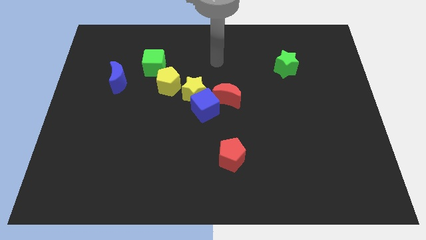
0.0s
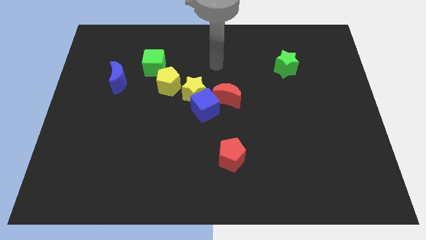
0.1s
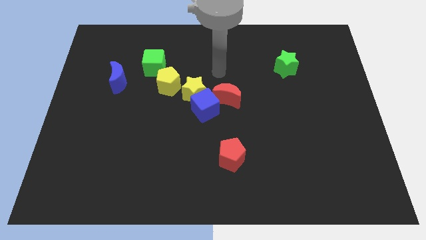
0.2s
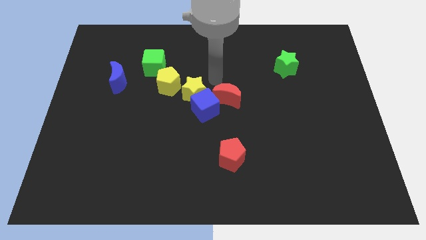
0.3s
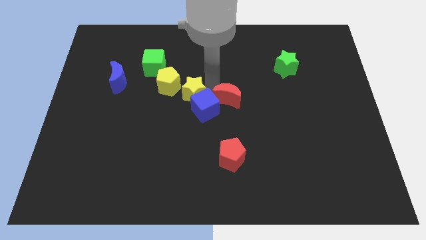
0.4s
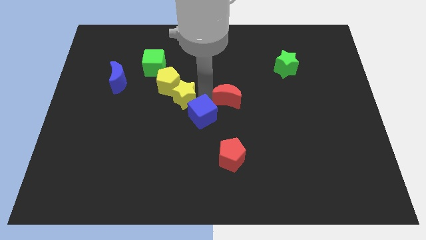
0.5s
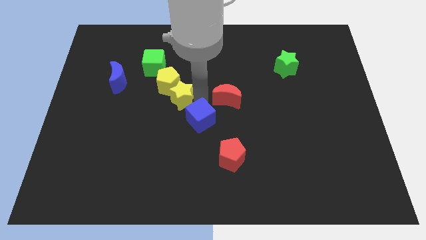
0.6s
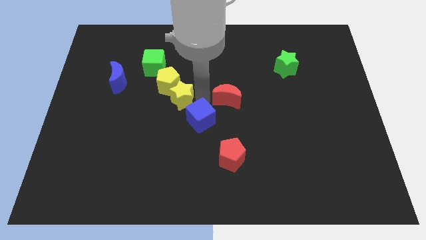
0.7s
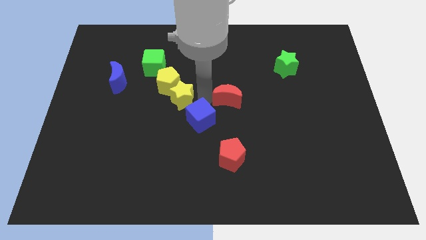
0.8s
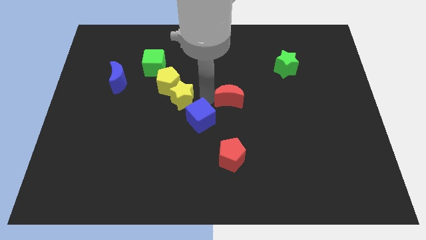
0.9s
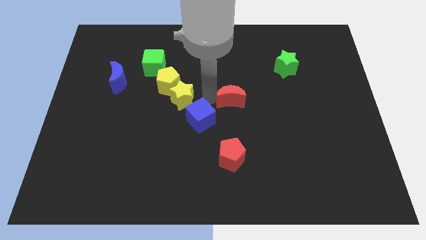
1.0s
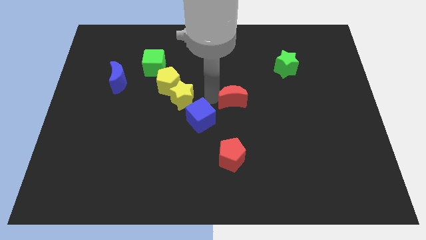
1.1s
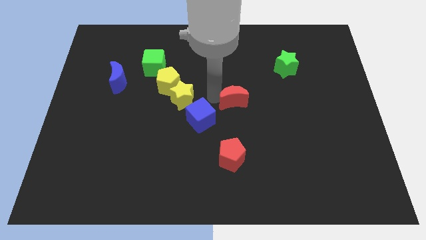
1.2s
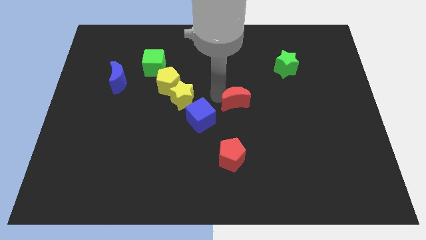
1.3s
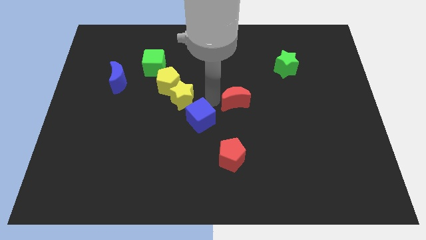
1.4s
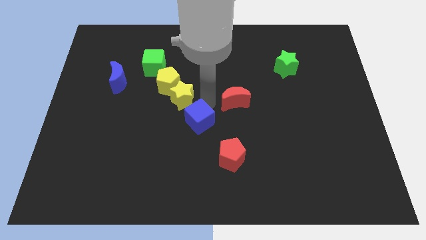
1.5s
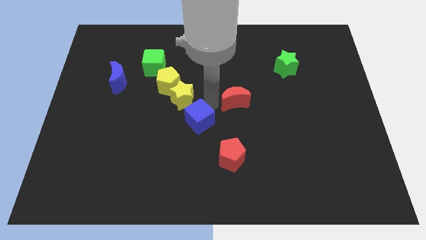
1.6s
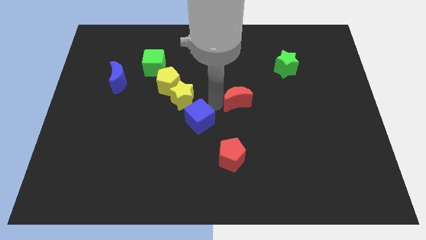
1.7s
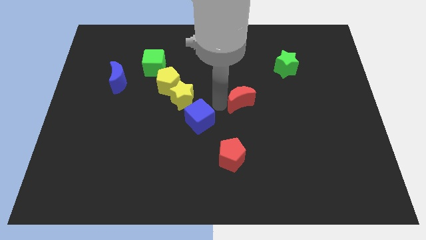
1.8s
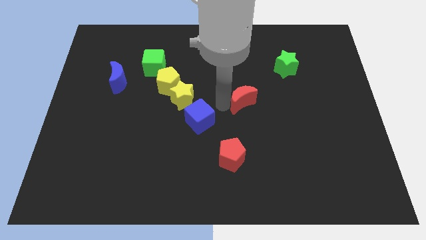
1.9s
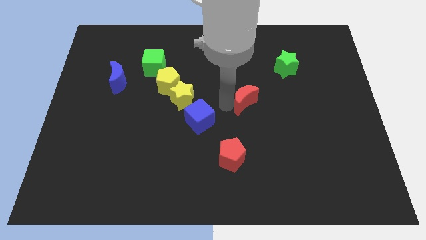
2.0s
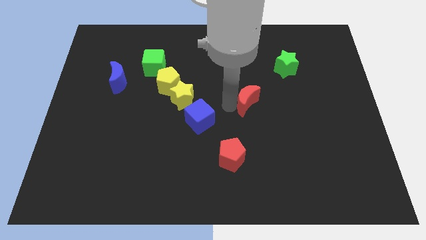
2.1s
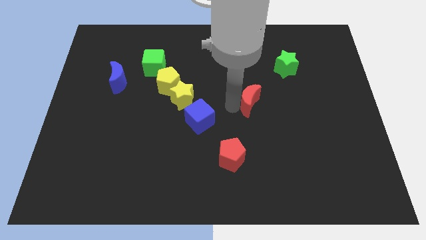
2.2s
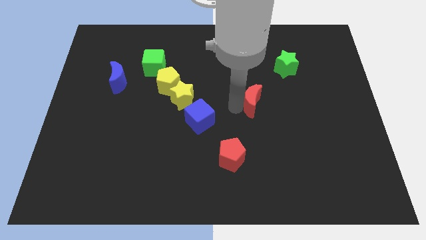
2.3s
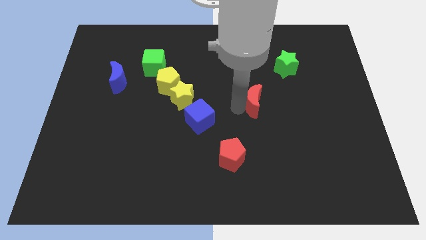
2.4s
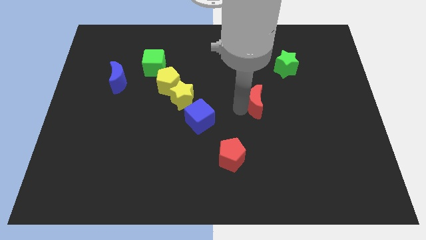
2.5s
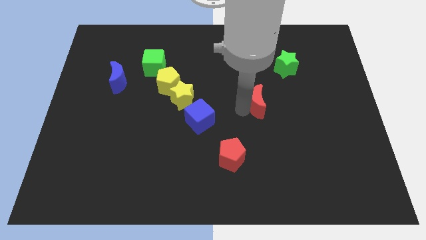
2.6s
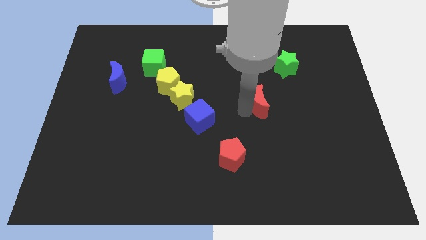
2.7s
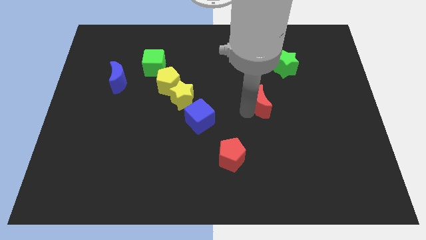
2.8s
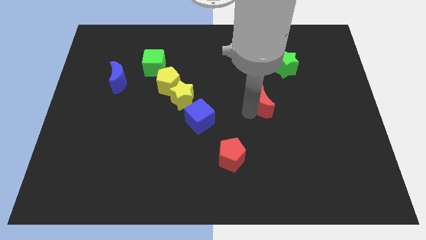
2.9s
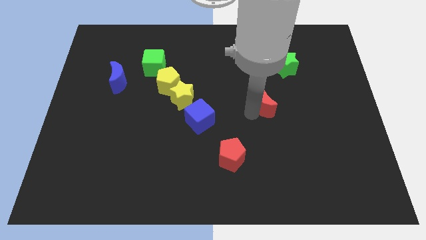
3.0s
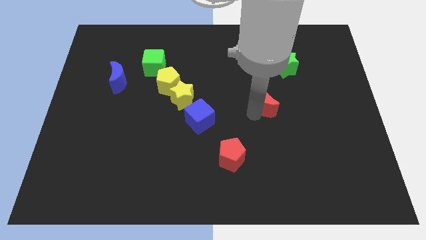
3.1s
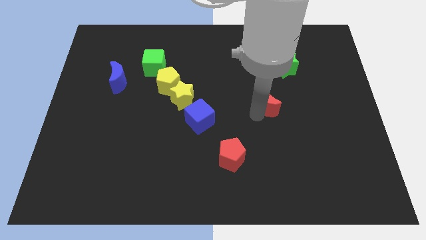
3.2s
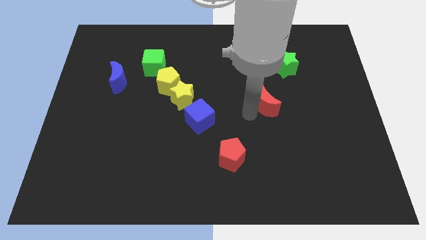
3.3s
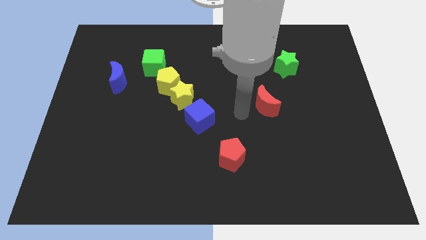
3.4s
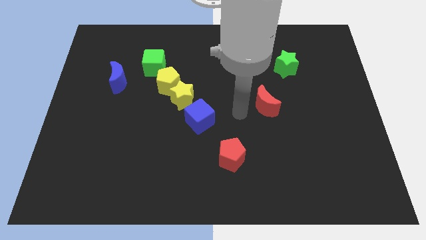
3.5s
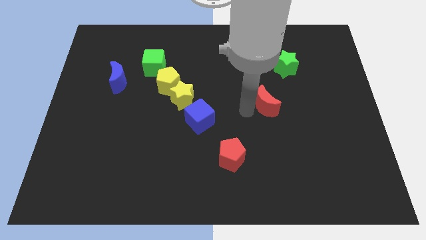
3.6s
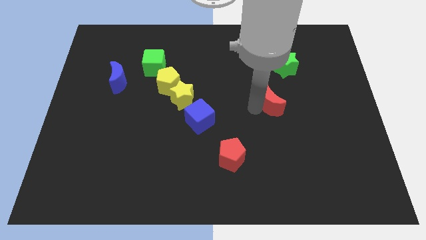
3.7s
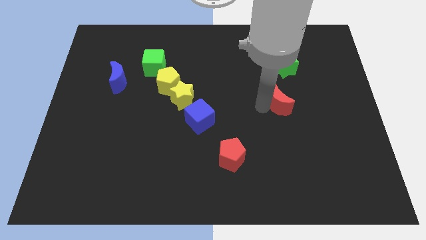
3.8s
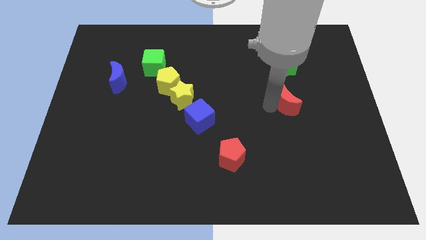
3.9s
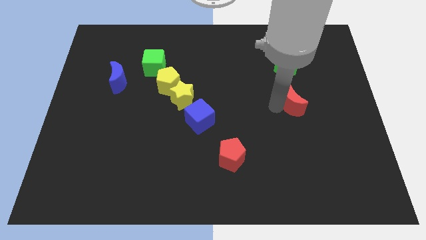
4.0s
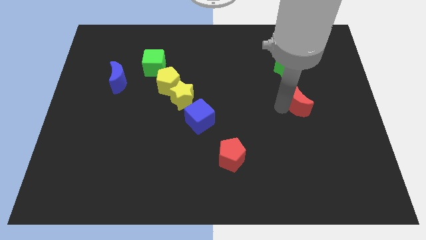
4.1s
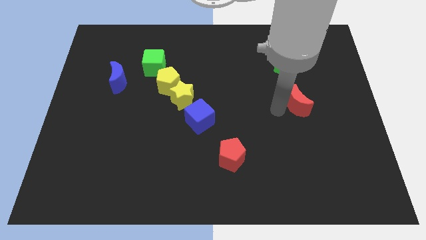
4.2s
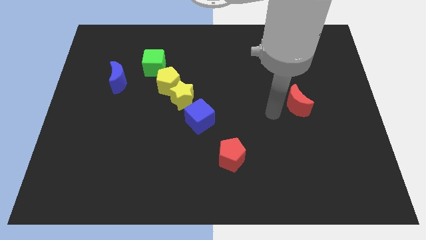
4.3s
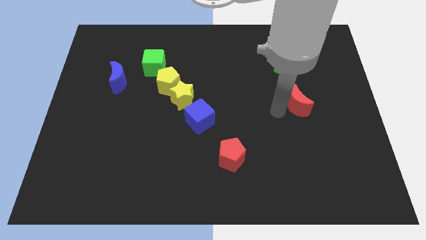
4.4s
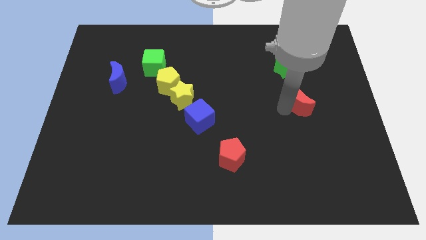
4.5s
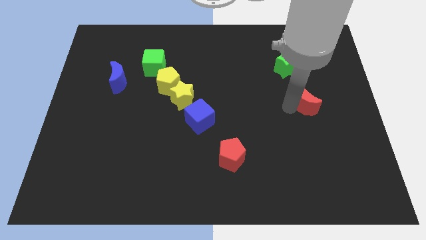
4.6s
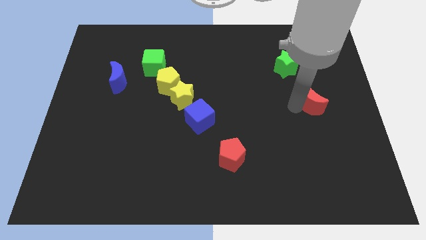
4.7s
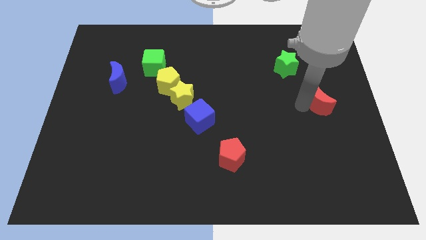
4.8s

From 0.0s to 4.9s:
slide the red moon to the right side

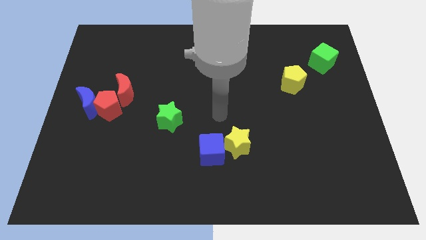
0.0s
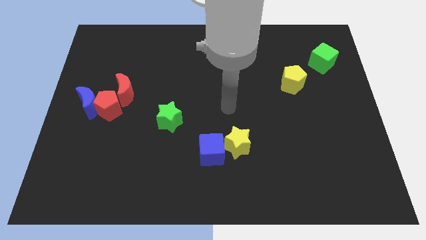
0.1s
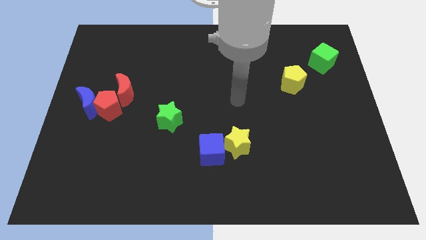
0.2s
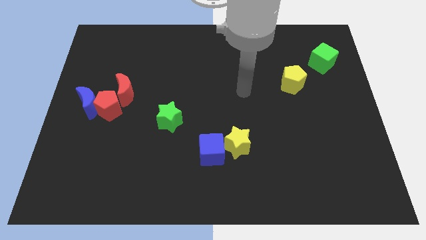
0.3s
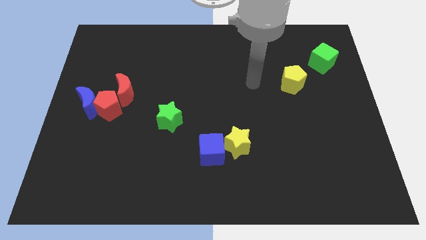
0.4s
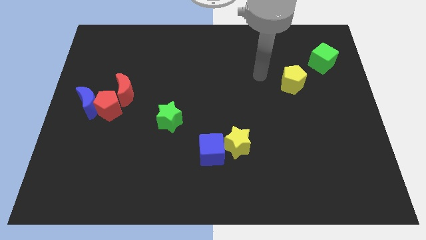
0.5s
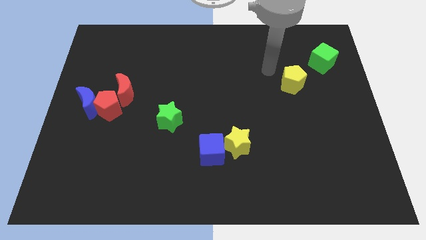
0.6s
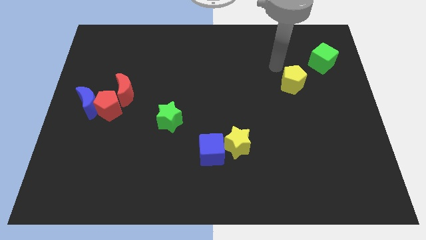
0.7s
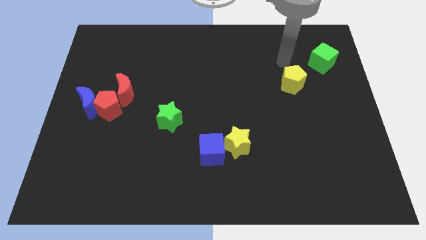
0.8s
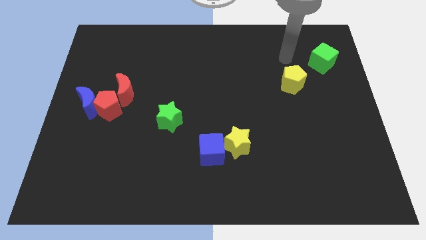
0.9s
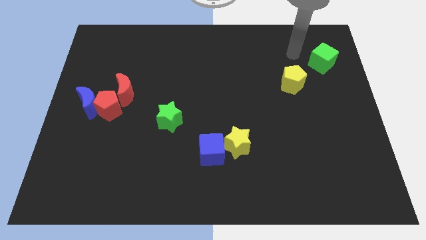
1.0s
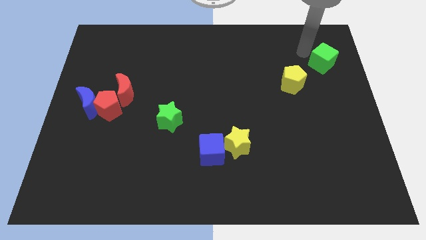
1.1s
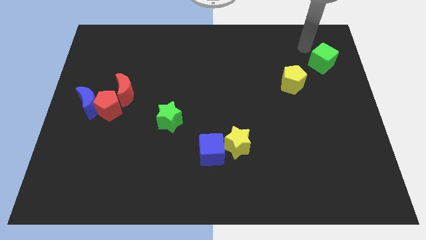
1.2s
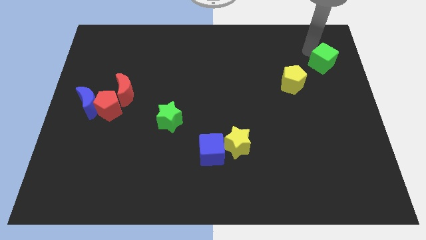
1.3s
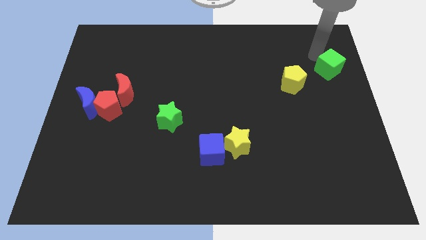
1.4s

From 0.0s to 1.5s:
push the green cube to the center right
